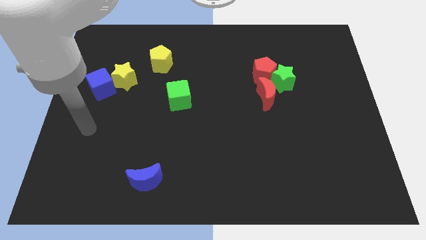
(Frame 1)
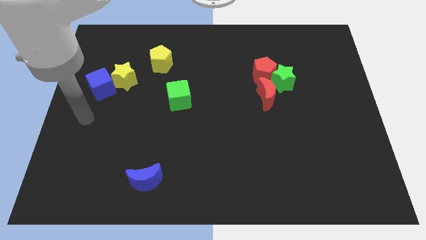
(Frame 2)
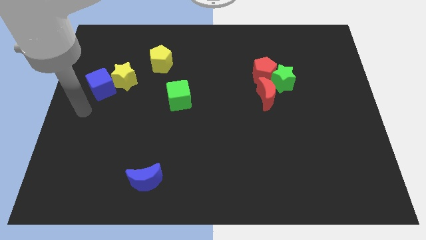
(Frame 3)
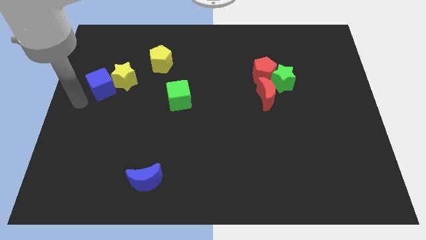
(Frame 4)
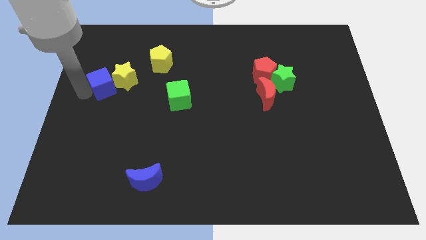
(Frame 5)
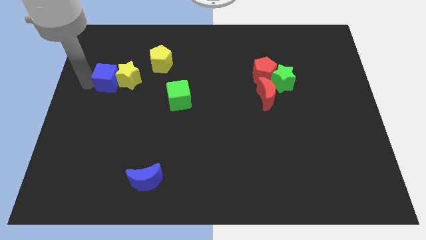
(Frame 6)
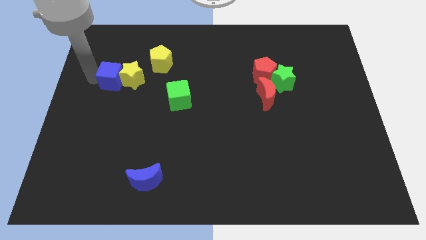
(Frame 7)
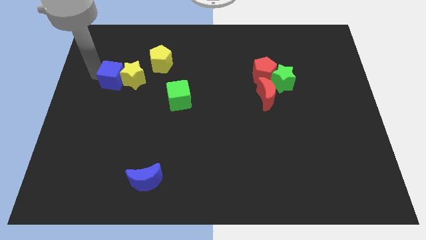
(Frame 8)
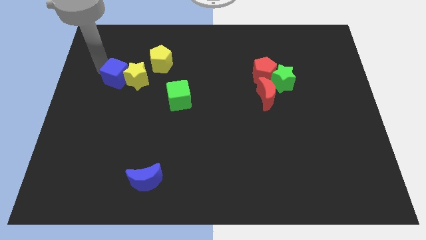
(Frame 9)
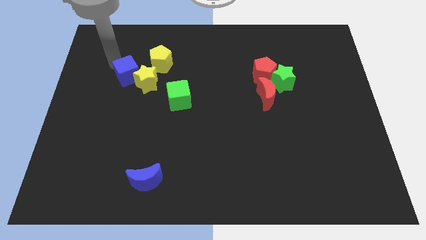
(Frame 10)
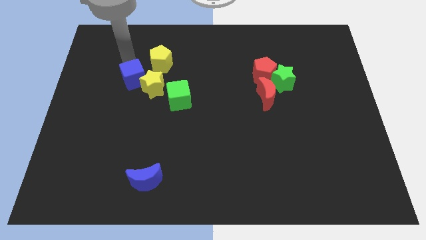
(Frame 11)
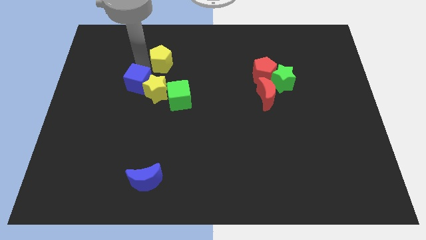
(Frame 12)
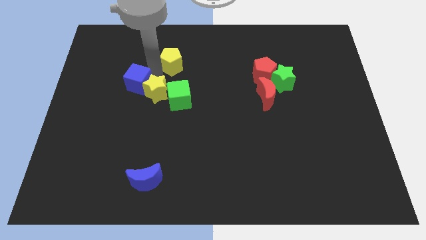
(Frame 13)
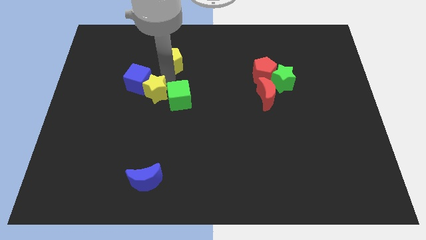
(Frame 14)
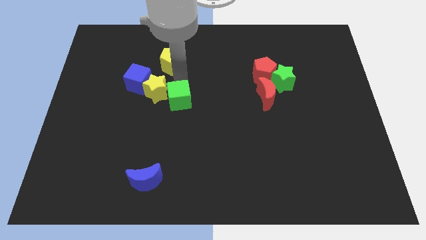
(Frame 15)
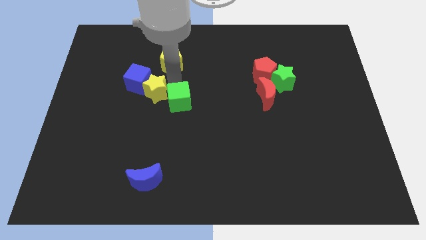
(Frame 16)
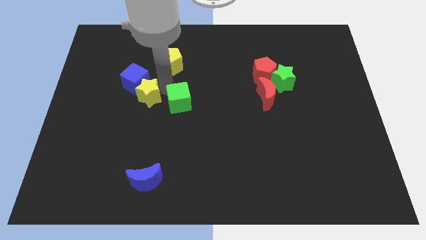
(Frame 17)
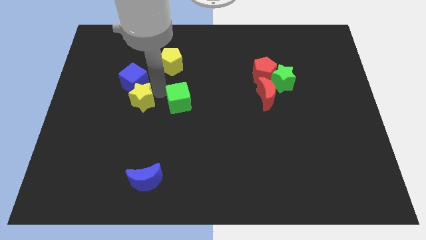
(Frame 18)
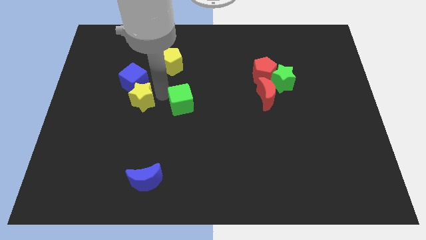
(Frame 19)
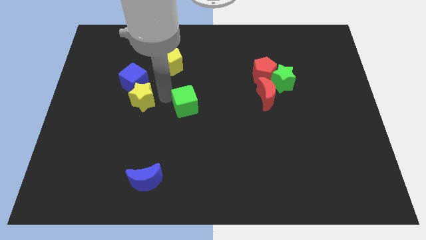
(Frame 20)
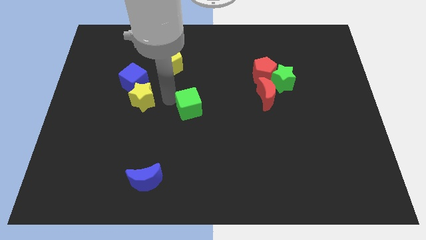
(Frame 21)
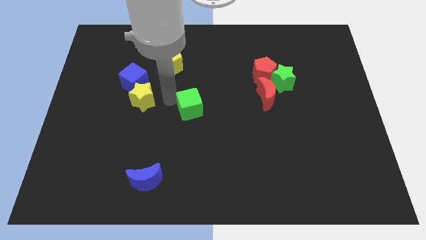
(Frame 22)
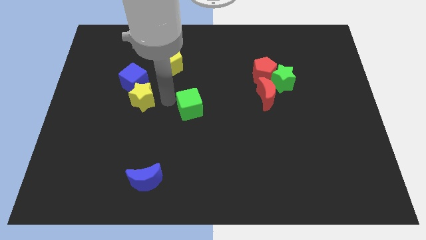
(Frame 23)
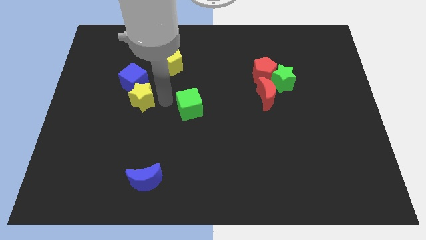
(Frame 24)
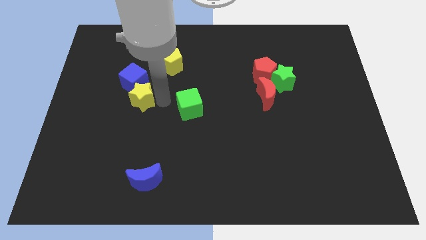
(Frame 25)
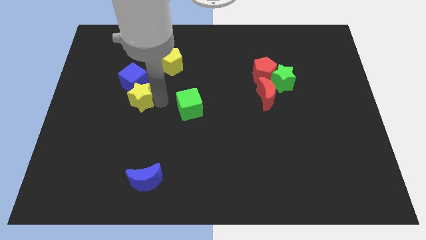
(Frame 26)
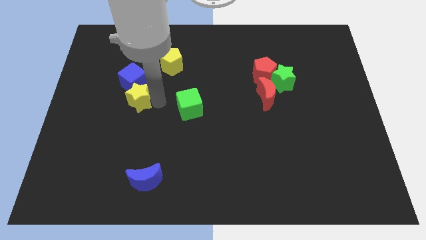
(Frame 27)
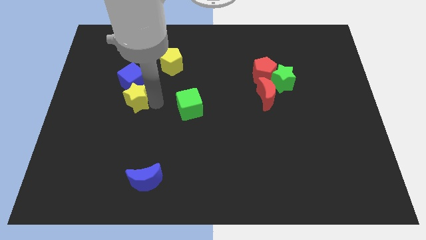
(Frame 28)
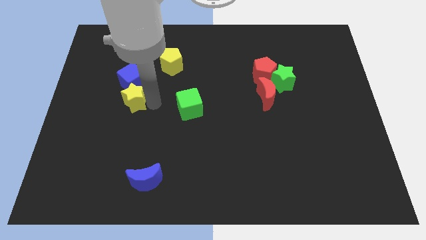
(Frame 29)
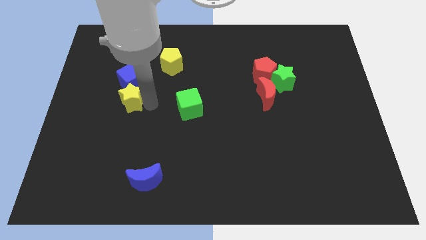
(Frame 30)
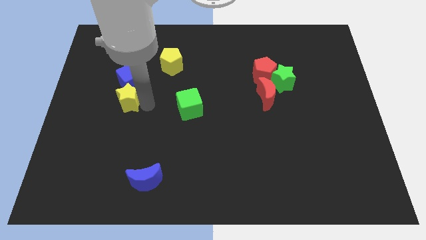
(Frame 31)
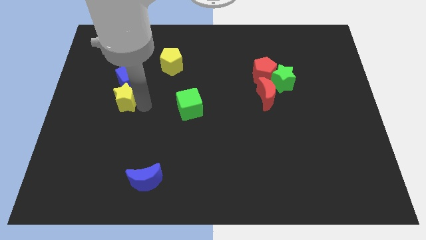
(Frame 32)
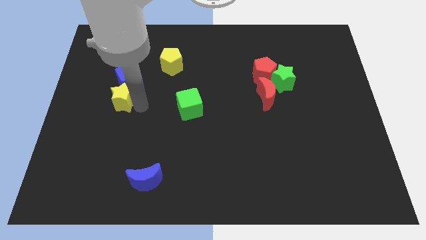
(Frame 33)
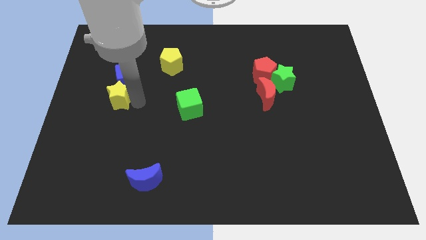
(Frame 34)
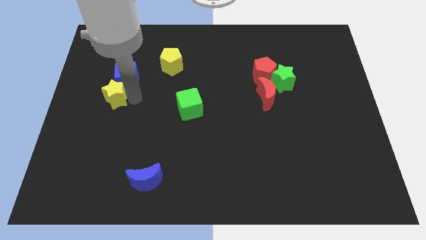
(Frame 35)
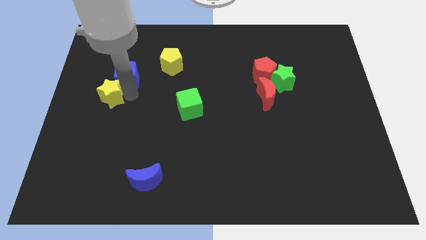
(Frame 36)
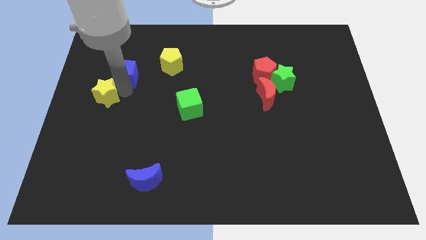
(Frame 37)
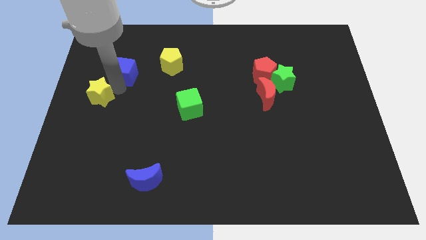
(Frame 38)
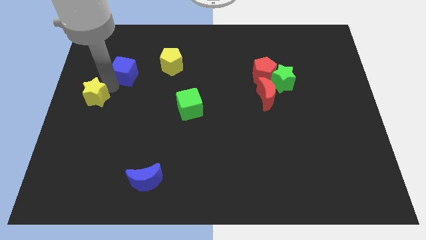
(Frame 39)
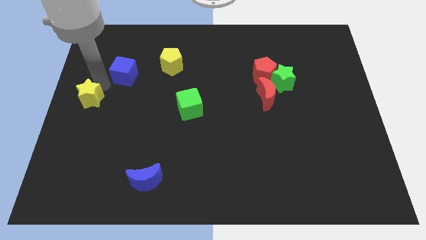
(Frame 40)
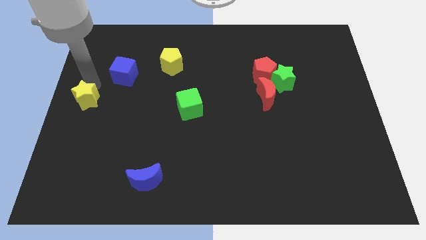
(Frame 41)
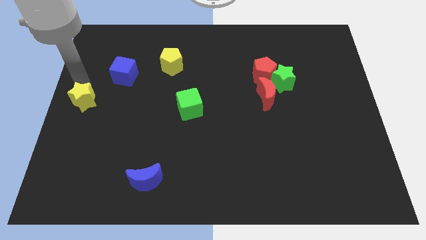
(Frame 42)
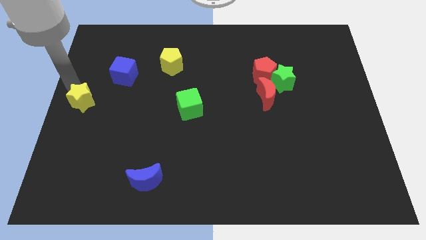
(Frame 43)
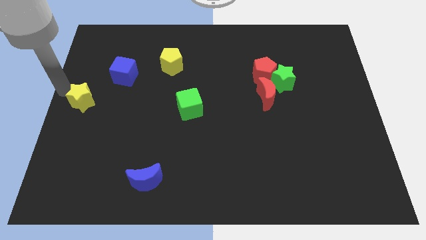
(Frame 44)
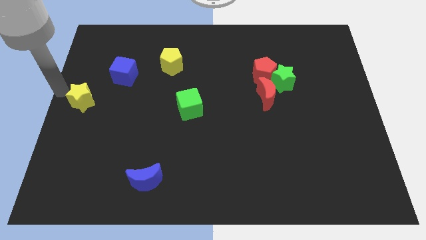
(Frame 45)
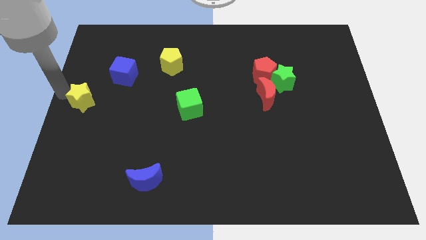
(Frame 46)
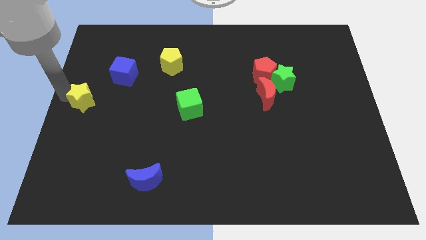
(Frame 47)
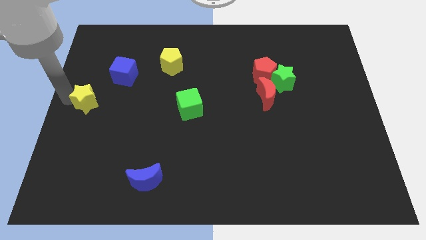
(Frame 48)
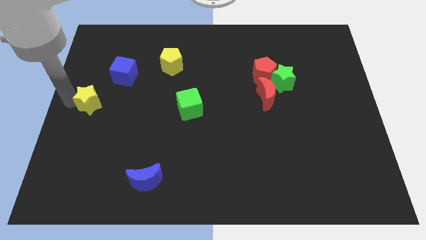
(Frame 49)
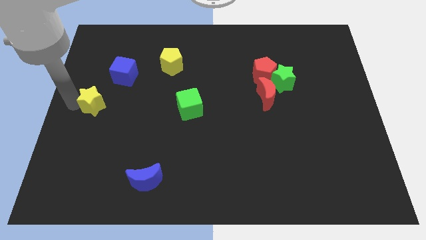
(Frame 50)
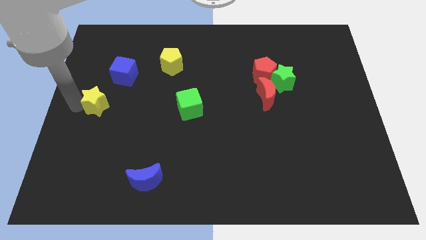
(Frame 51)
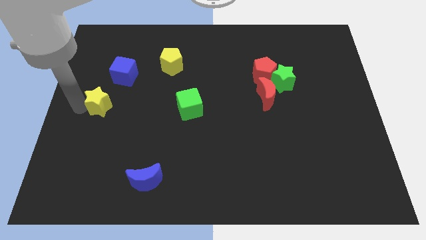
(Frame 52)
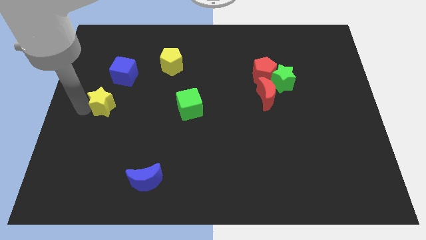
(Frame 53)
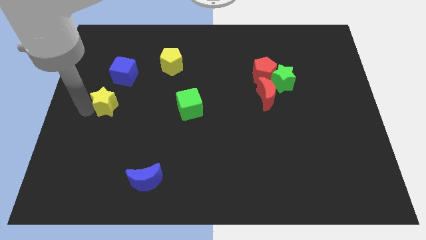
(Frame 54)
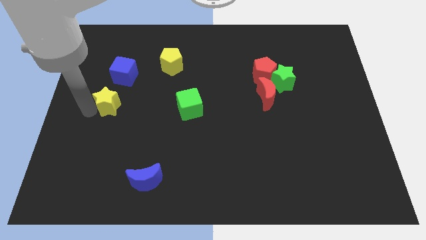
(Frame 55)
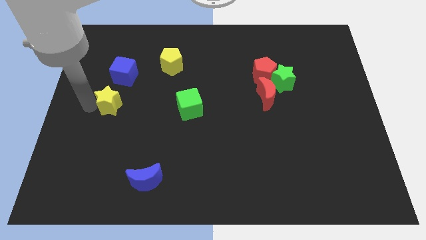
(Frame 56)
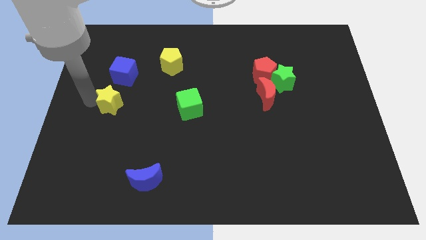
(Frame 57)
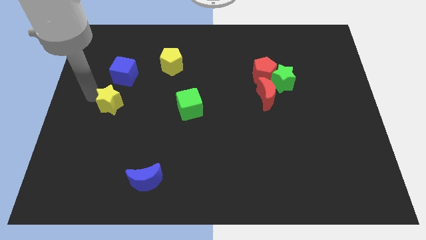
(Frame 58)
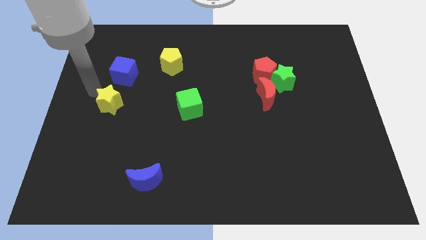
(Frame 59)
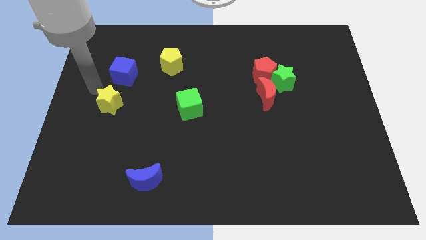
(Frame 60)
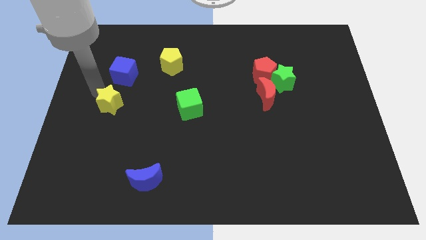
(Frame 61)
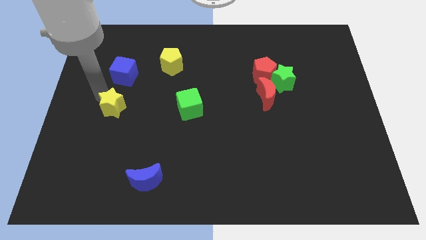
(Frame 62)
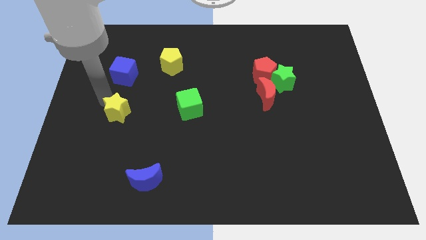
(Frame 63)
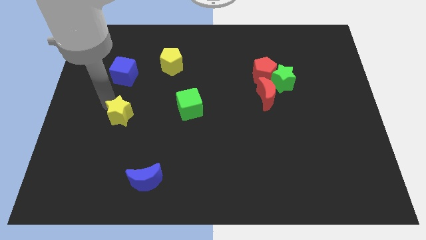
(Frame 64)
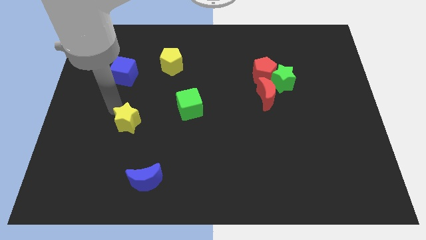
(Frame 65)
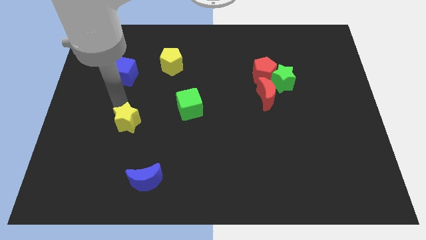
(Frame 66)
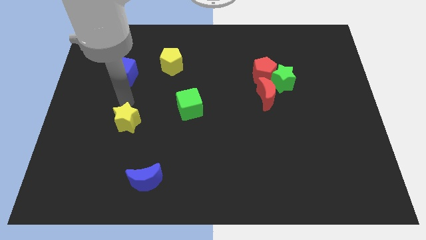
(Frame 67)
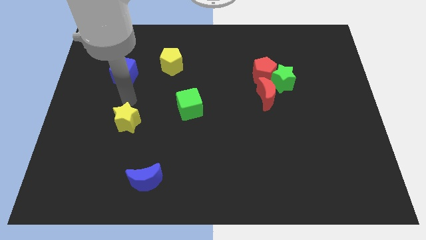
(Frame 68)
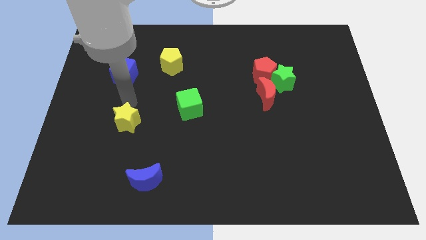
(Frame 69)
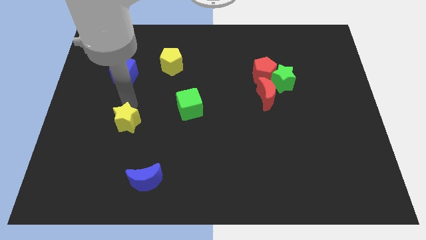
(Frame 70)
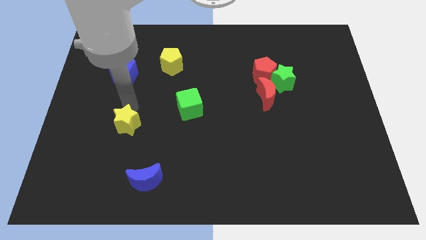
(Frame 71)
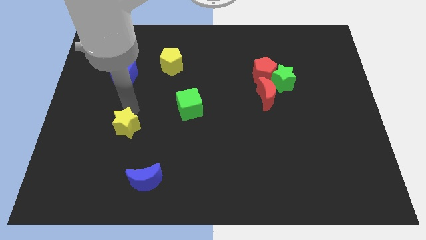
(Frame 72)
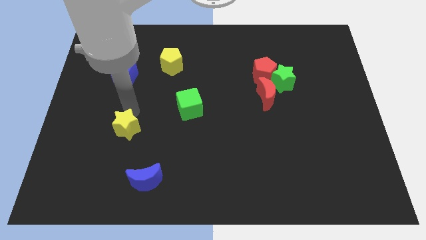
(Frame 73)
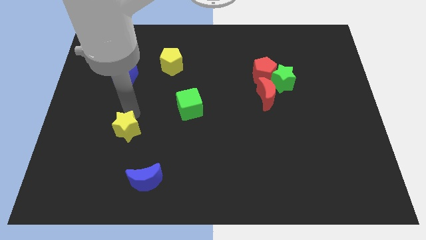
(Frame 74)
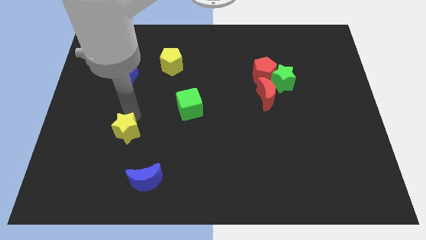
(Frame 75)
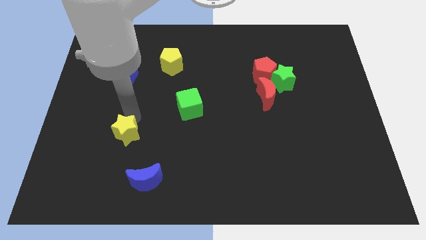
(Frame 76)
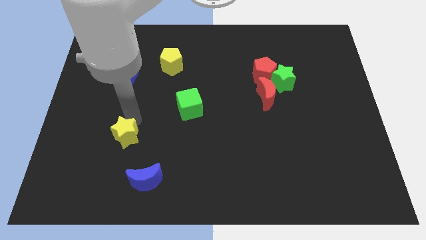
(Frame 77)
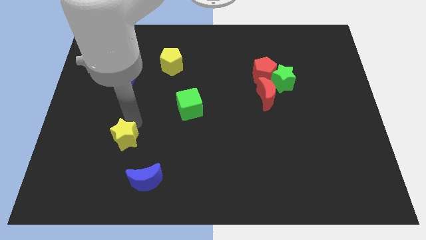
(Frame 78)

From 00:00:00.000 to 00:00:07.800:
slide the yellow star diagonally up and to the left of the blue moon
